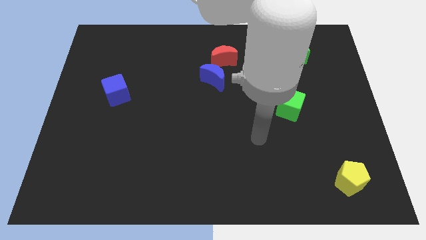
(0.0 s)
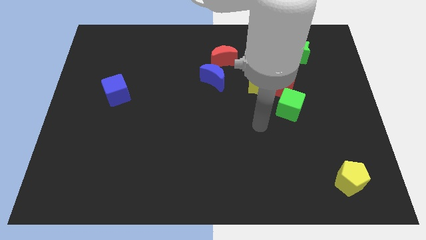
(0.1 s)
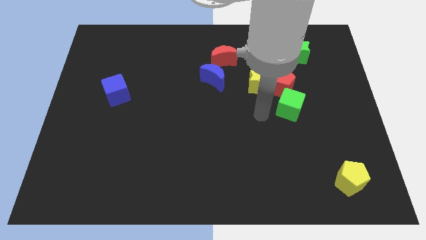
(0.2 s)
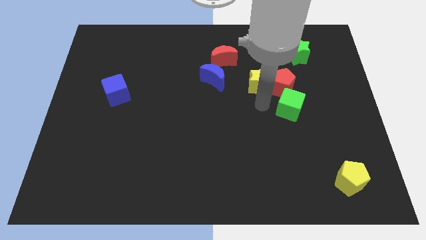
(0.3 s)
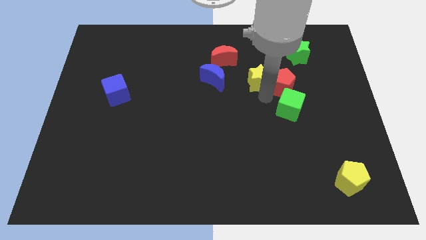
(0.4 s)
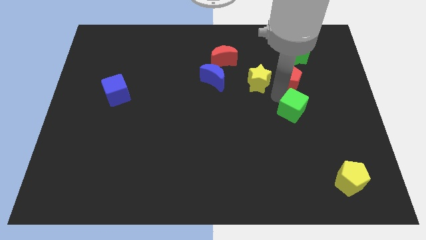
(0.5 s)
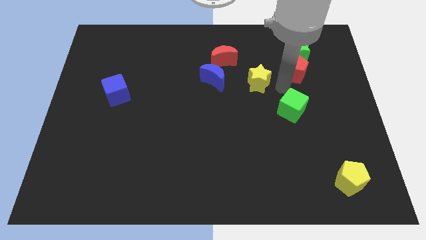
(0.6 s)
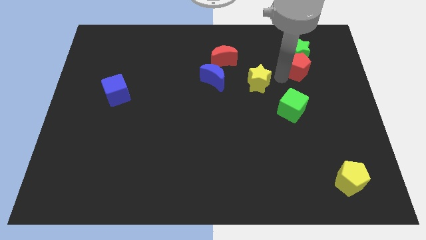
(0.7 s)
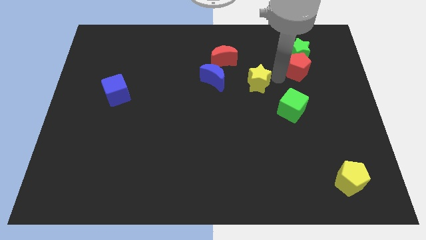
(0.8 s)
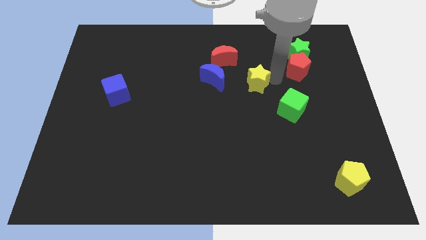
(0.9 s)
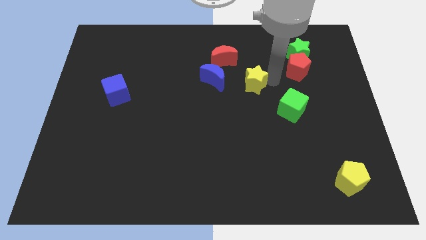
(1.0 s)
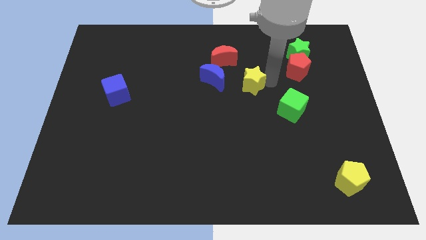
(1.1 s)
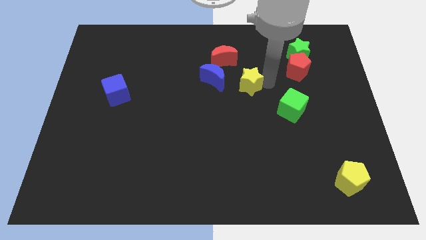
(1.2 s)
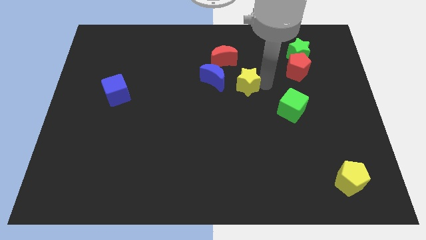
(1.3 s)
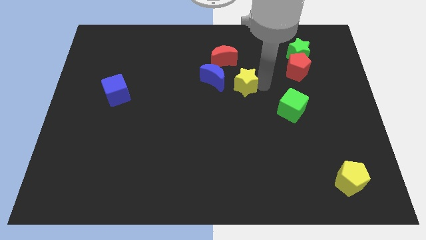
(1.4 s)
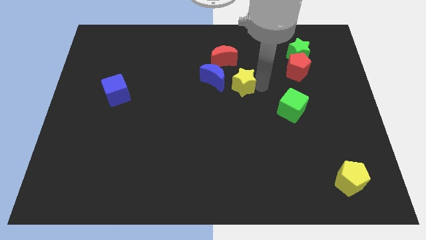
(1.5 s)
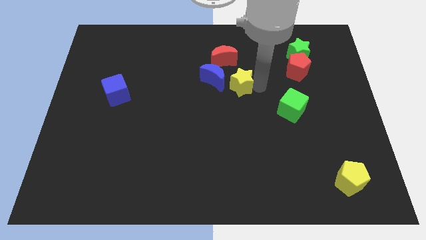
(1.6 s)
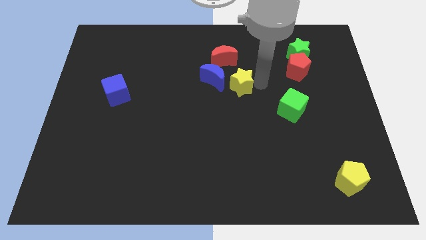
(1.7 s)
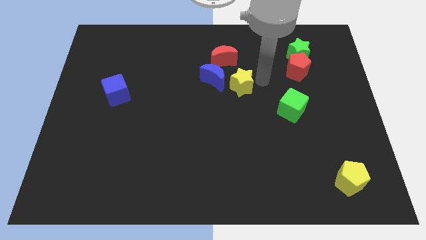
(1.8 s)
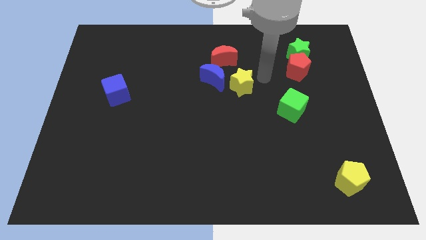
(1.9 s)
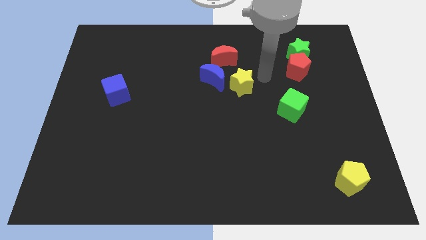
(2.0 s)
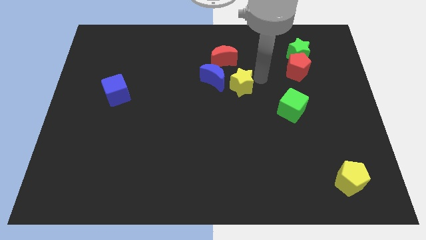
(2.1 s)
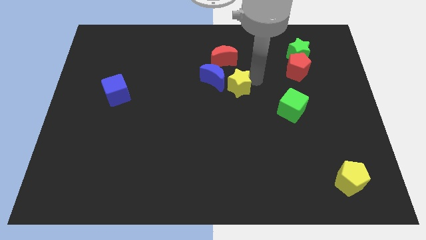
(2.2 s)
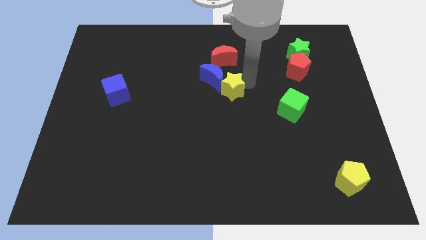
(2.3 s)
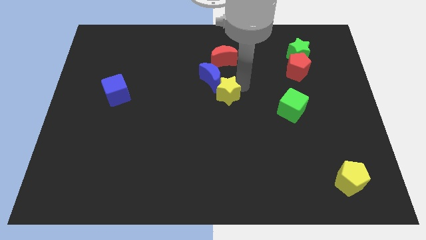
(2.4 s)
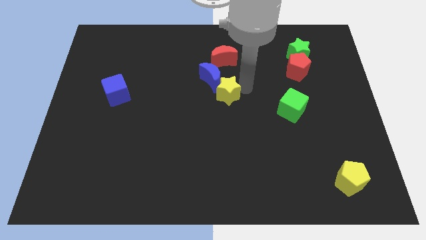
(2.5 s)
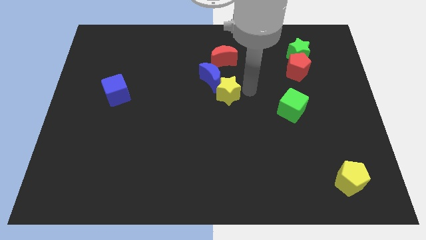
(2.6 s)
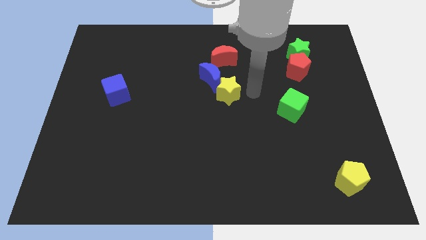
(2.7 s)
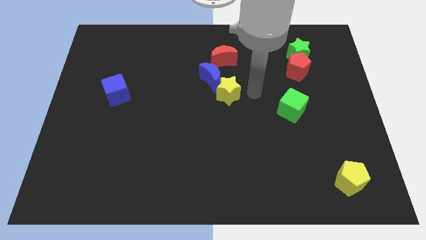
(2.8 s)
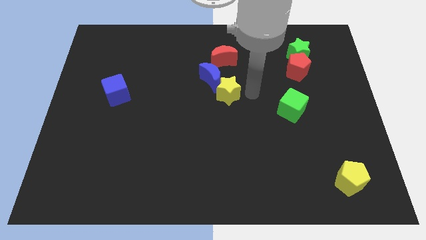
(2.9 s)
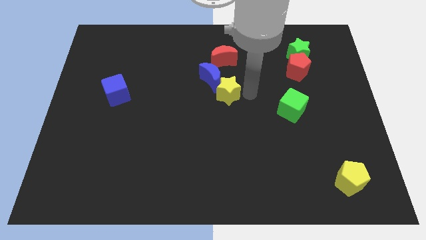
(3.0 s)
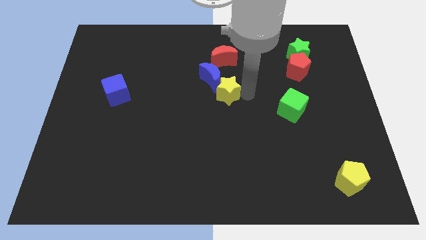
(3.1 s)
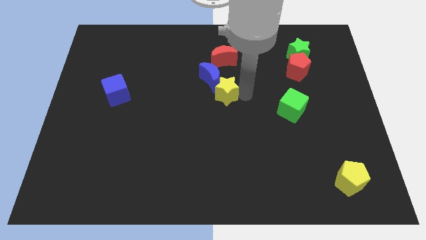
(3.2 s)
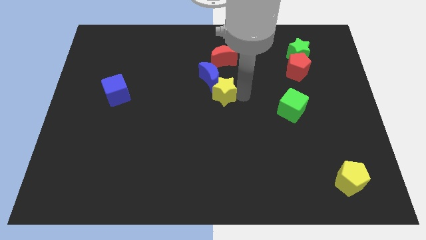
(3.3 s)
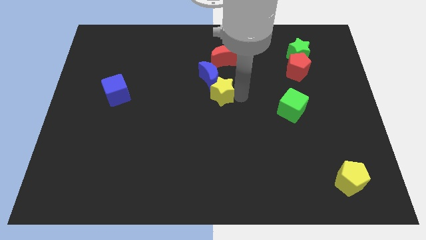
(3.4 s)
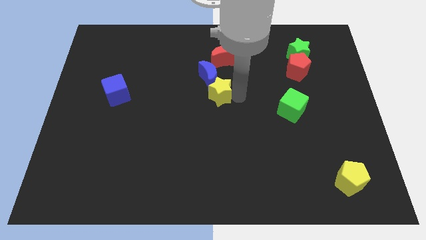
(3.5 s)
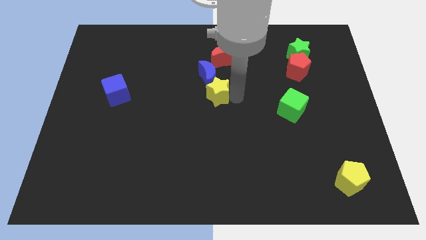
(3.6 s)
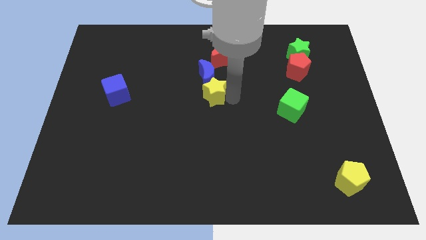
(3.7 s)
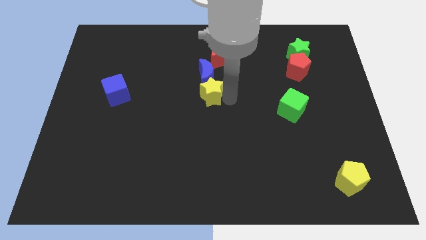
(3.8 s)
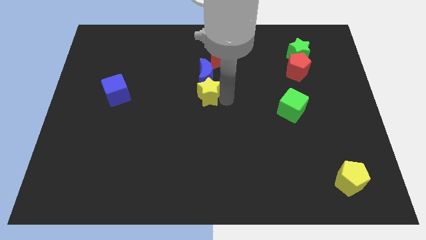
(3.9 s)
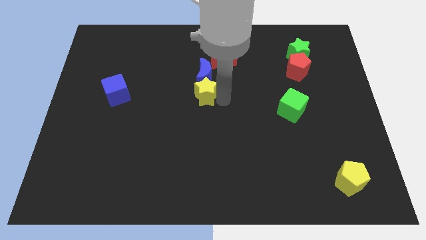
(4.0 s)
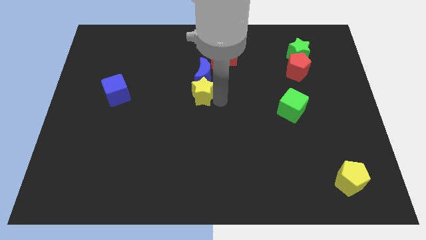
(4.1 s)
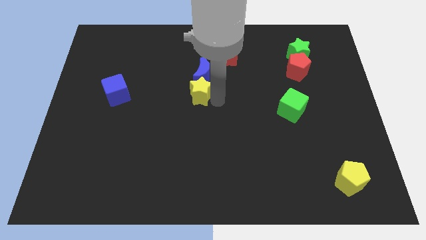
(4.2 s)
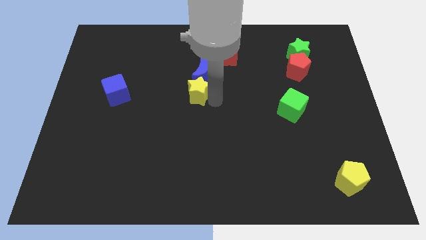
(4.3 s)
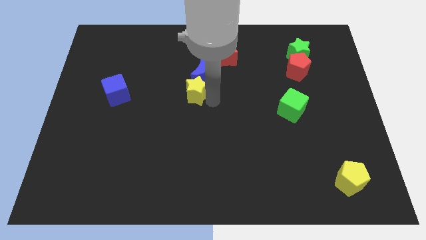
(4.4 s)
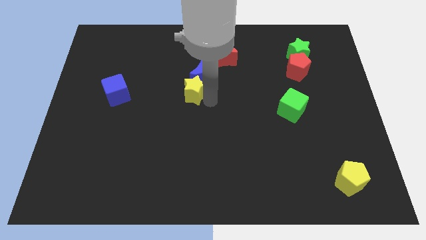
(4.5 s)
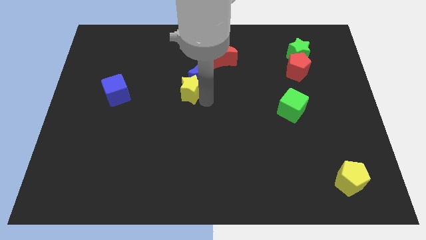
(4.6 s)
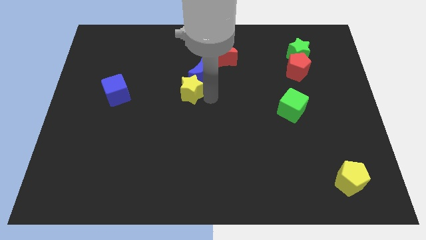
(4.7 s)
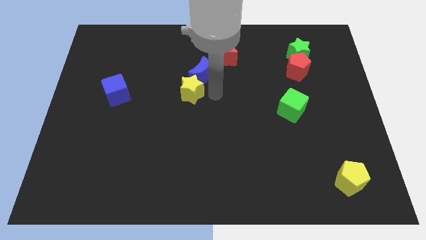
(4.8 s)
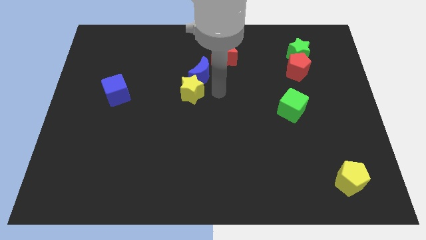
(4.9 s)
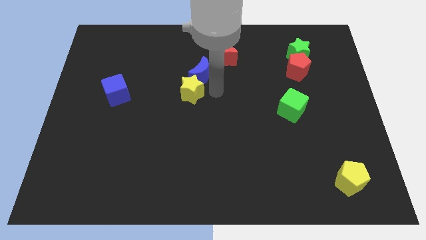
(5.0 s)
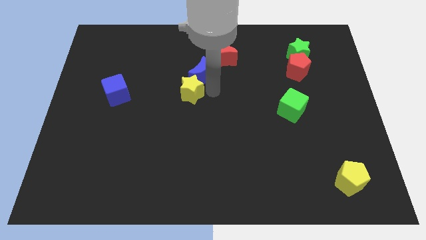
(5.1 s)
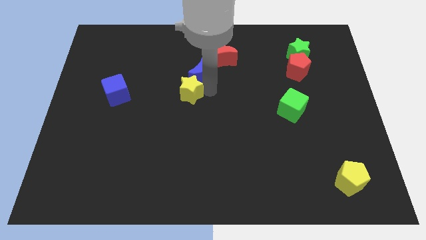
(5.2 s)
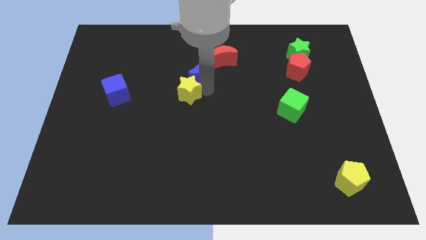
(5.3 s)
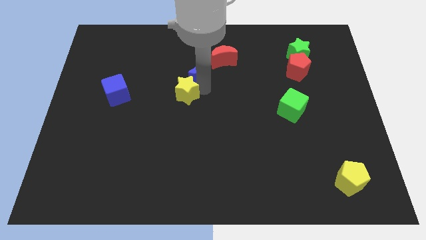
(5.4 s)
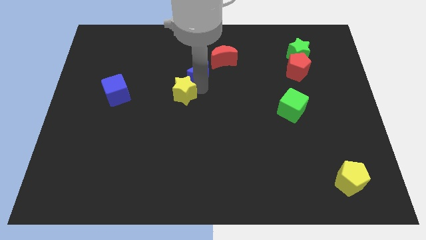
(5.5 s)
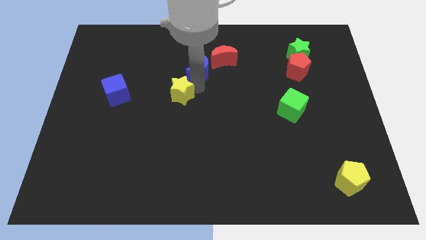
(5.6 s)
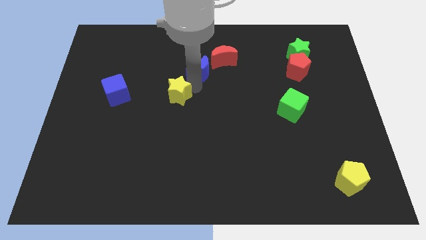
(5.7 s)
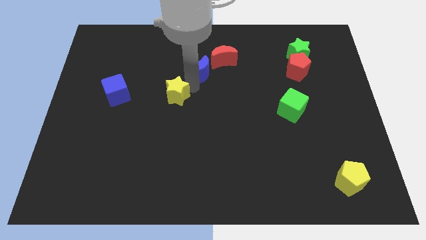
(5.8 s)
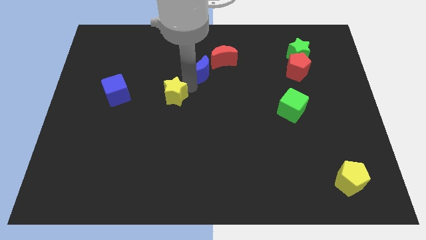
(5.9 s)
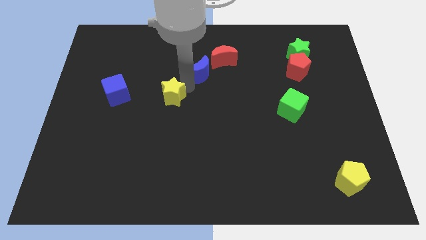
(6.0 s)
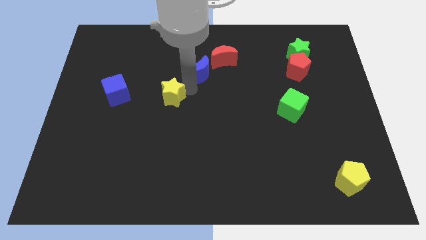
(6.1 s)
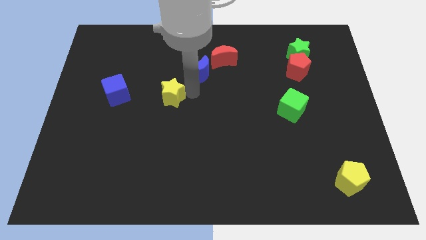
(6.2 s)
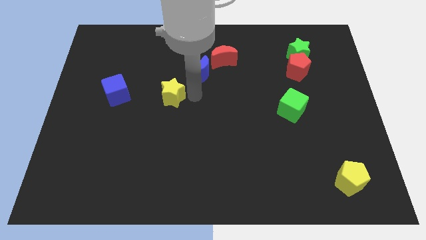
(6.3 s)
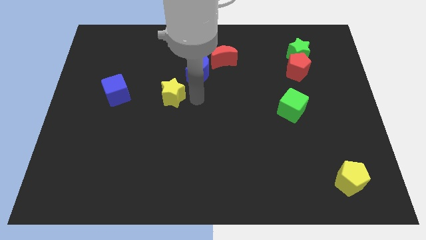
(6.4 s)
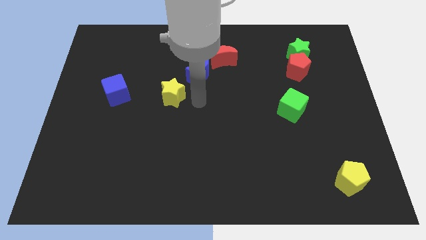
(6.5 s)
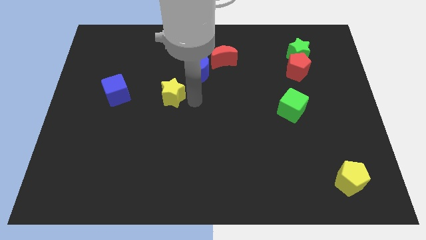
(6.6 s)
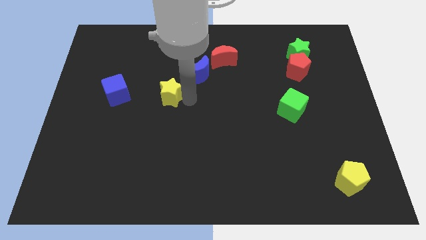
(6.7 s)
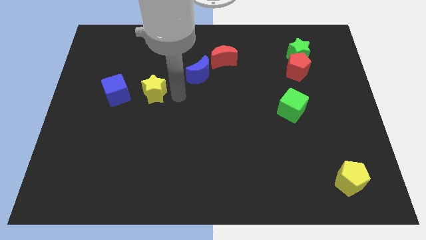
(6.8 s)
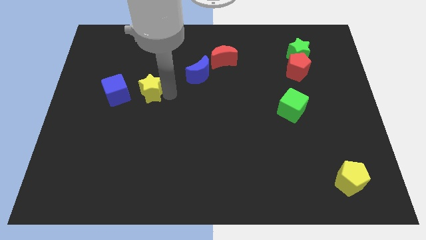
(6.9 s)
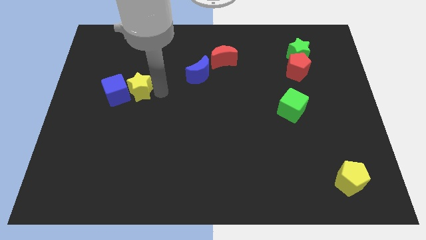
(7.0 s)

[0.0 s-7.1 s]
slide the yellow star close to the blue cube

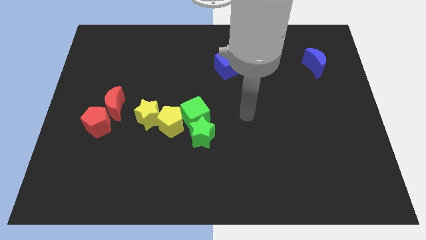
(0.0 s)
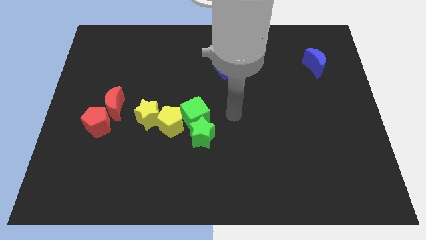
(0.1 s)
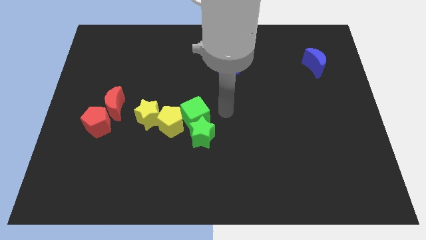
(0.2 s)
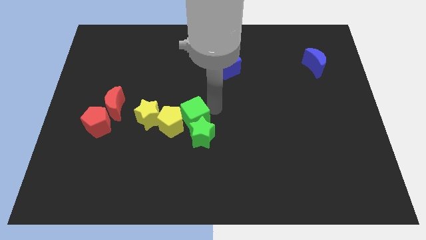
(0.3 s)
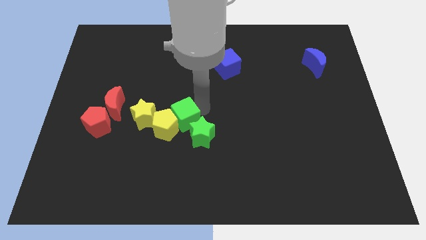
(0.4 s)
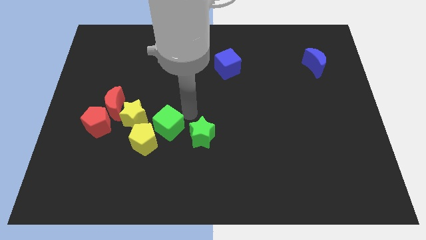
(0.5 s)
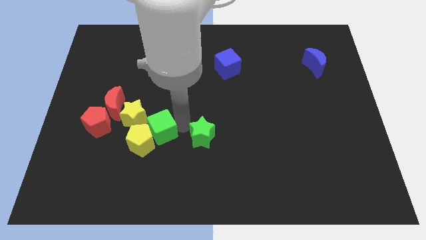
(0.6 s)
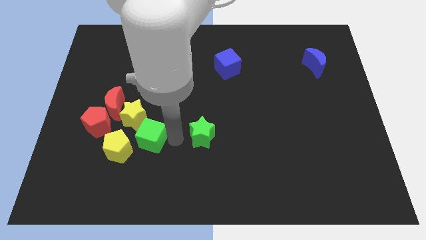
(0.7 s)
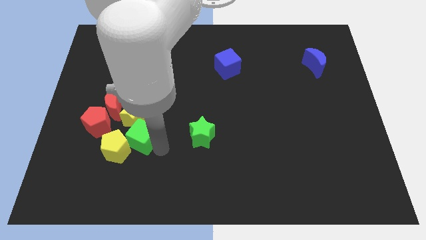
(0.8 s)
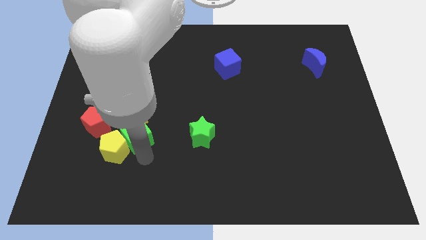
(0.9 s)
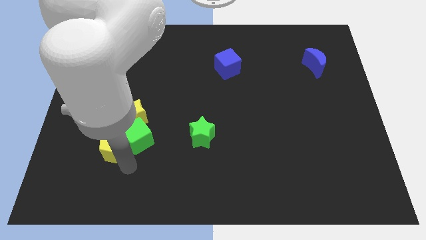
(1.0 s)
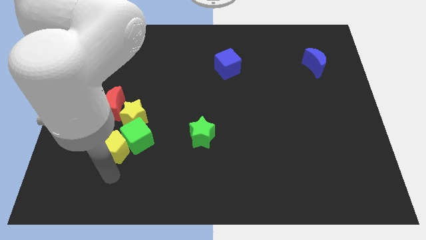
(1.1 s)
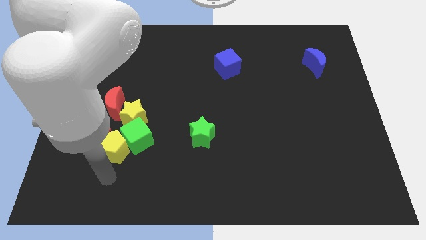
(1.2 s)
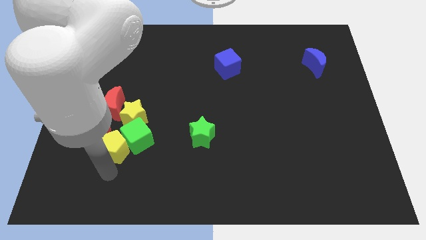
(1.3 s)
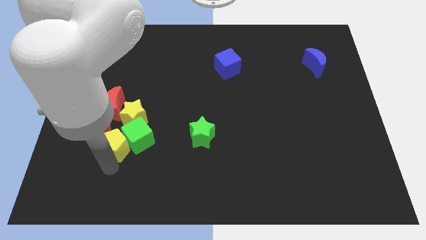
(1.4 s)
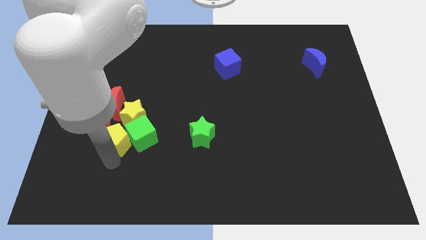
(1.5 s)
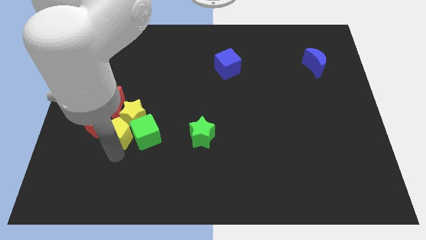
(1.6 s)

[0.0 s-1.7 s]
push the yellow pentagon close to the red pentagon
